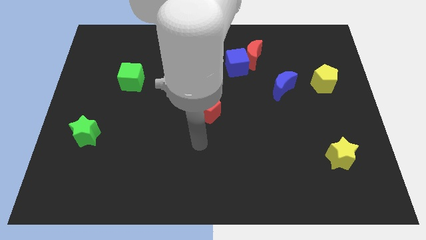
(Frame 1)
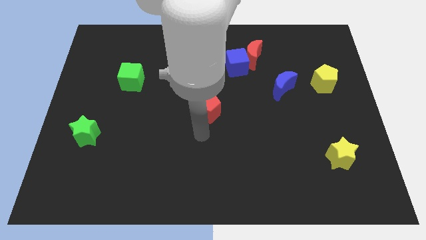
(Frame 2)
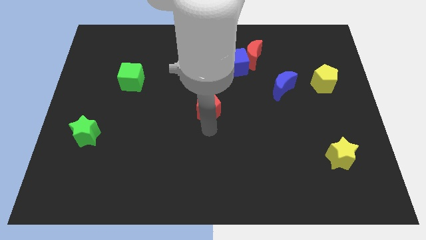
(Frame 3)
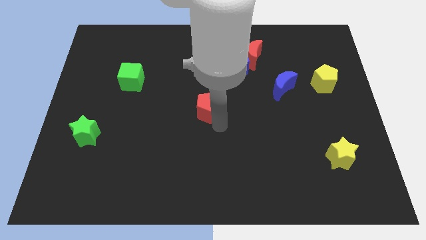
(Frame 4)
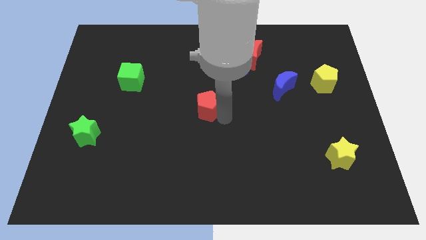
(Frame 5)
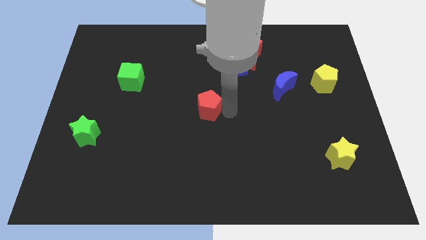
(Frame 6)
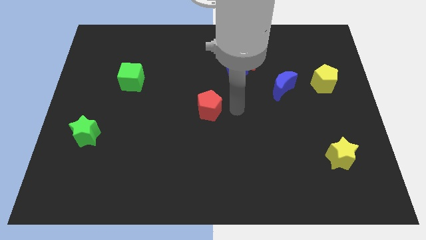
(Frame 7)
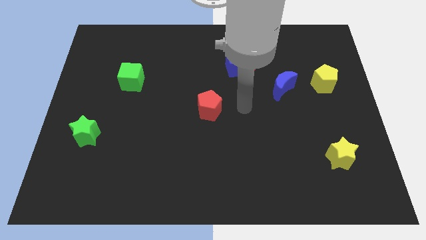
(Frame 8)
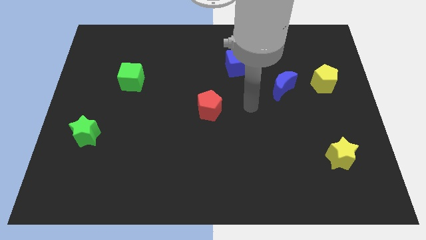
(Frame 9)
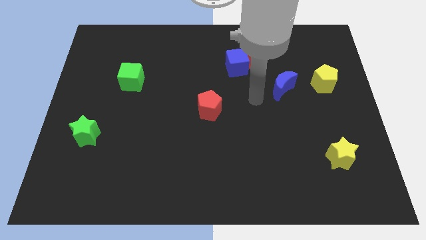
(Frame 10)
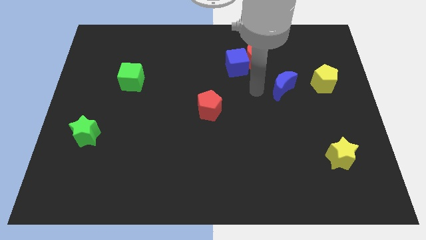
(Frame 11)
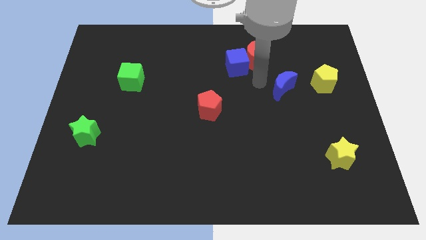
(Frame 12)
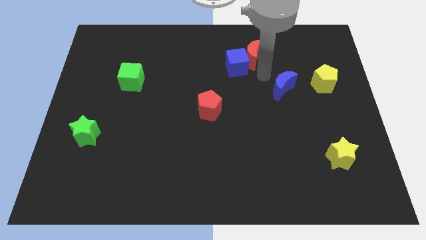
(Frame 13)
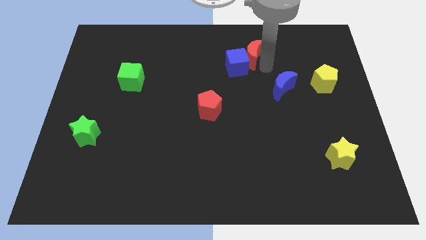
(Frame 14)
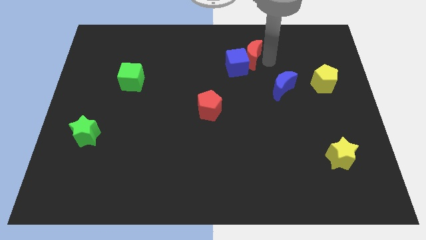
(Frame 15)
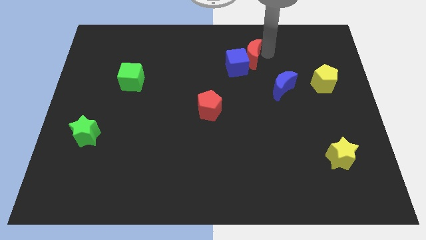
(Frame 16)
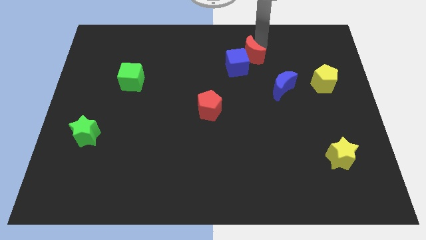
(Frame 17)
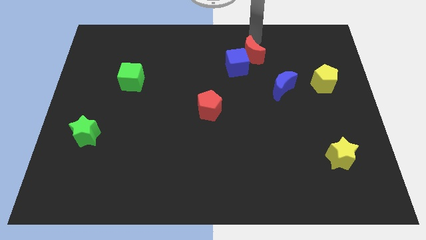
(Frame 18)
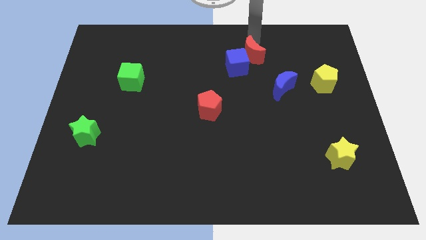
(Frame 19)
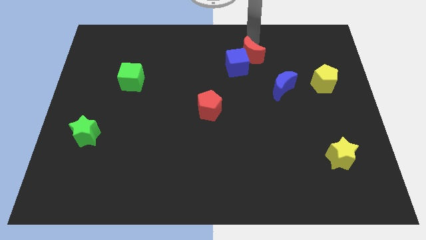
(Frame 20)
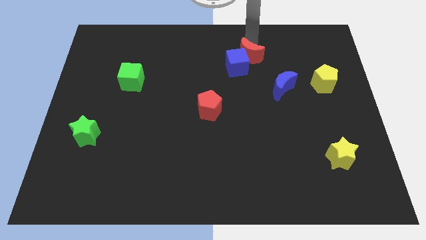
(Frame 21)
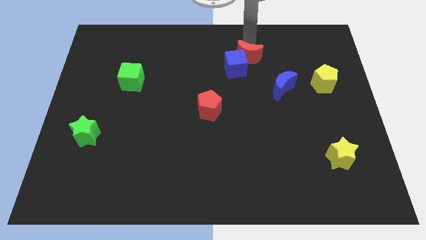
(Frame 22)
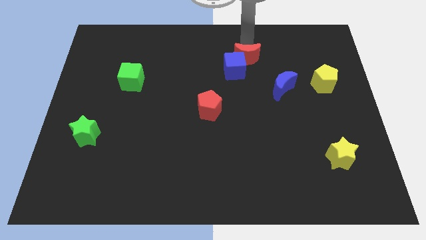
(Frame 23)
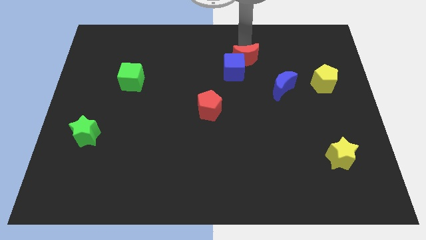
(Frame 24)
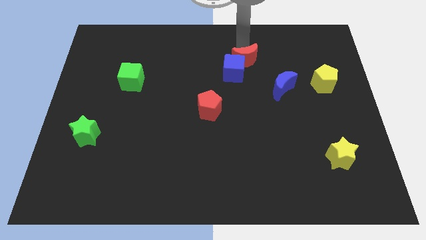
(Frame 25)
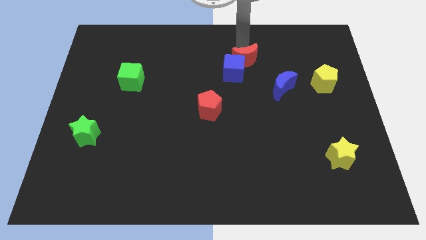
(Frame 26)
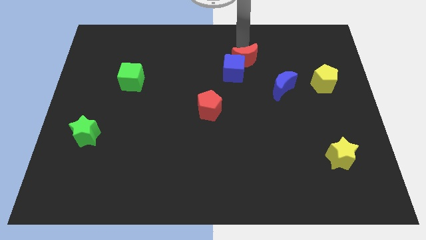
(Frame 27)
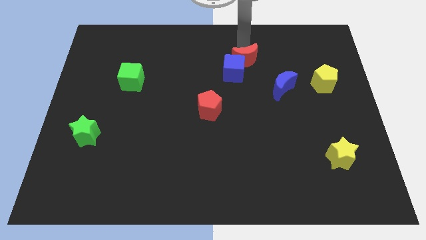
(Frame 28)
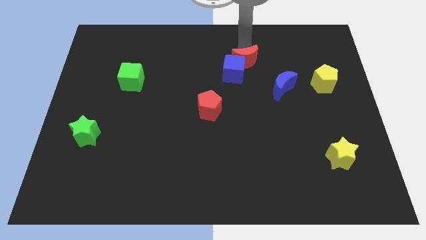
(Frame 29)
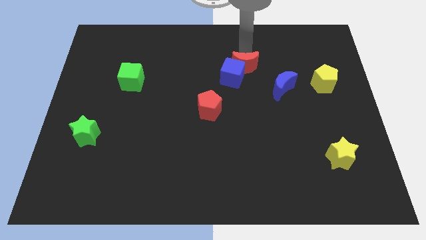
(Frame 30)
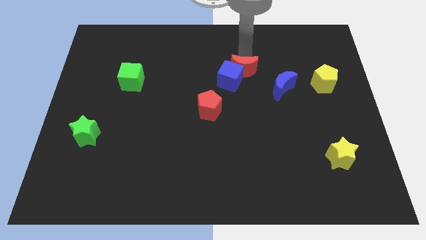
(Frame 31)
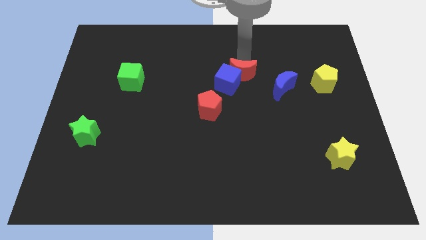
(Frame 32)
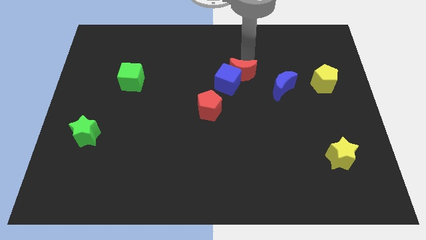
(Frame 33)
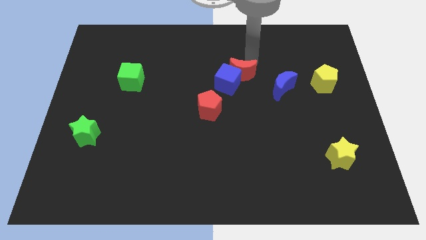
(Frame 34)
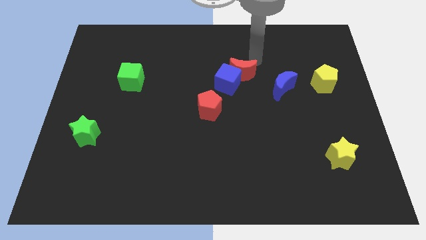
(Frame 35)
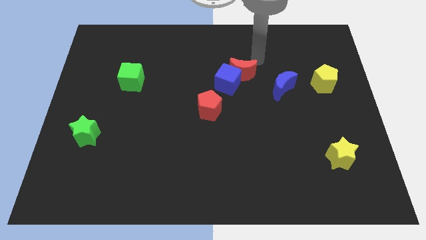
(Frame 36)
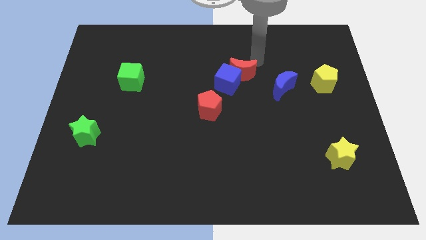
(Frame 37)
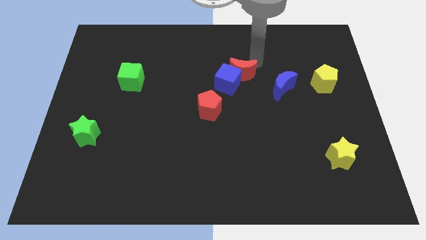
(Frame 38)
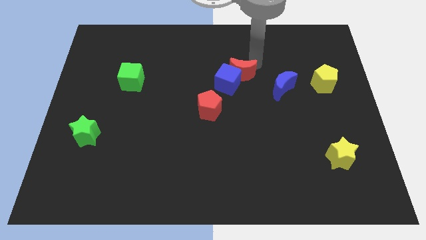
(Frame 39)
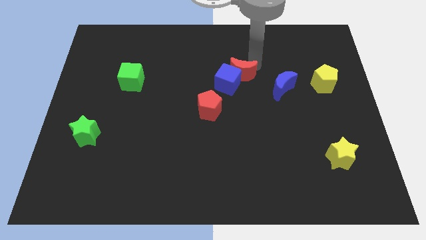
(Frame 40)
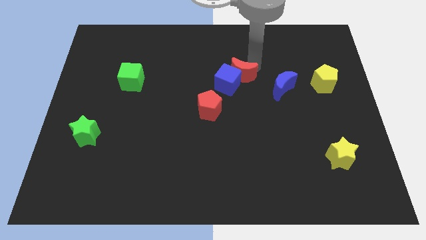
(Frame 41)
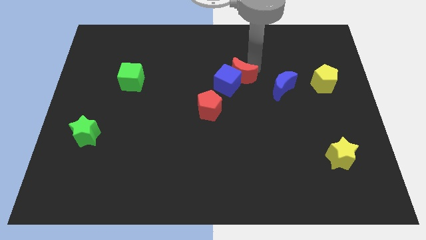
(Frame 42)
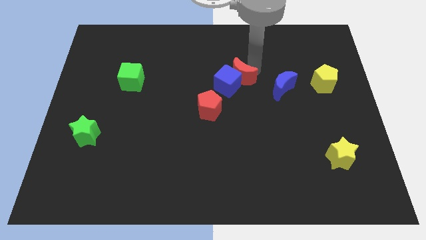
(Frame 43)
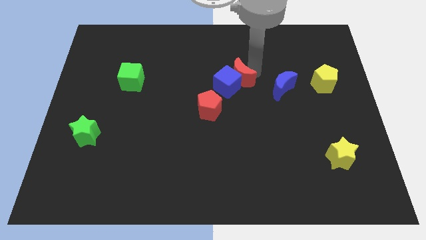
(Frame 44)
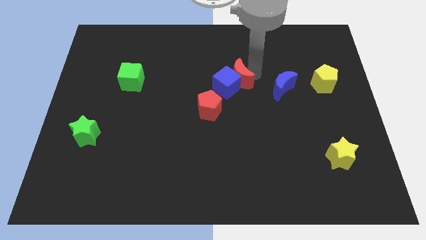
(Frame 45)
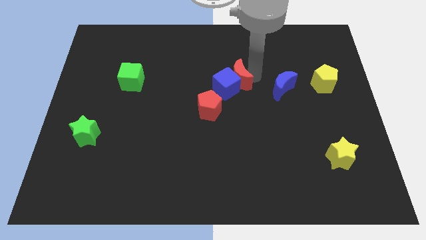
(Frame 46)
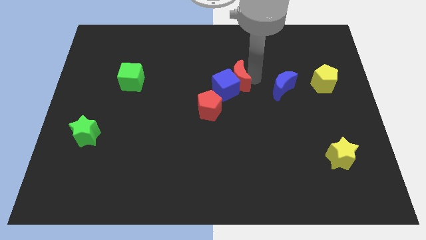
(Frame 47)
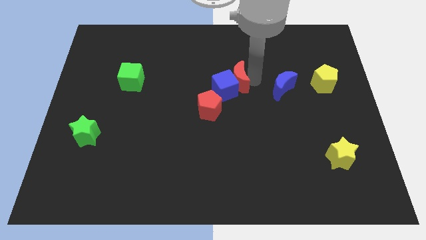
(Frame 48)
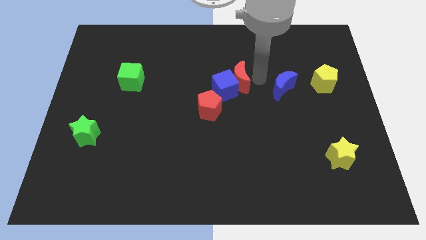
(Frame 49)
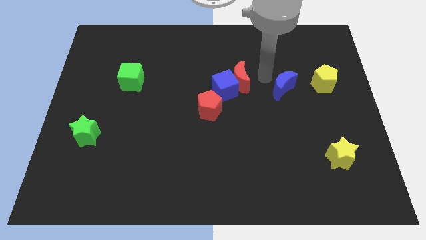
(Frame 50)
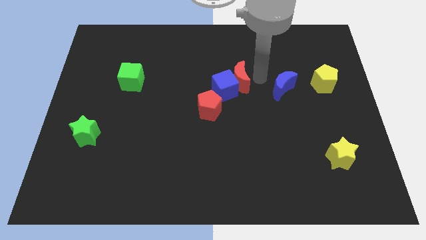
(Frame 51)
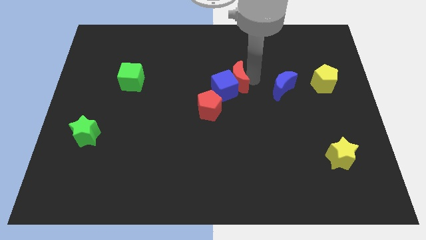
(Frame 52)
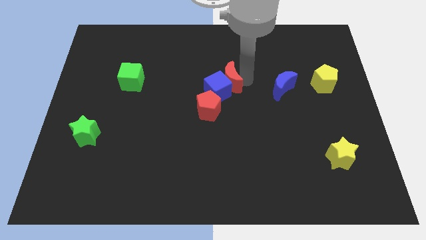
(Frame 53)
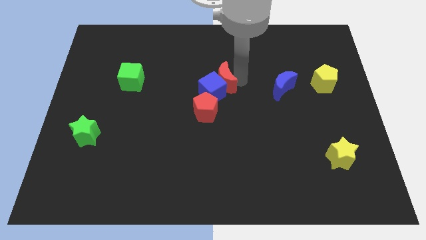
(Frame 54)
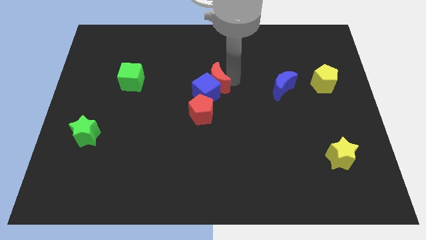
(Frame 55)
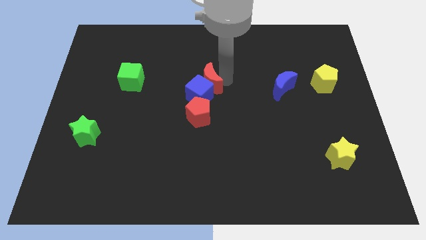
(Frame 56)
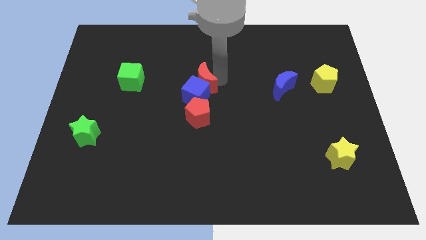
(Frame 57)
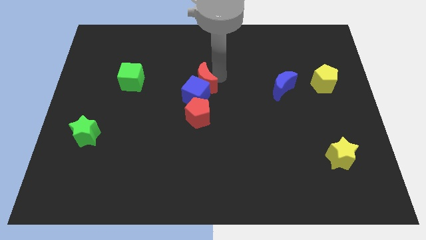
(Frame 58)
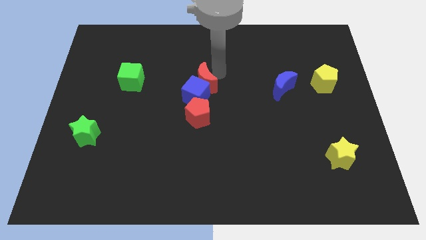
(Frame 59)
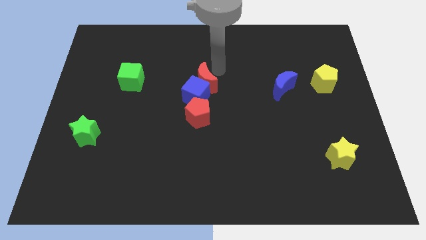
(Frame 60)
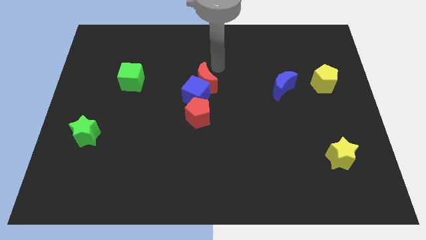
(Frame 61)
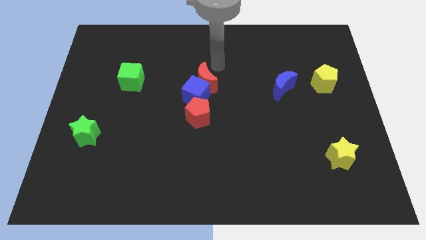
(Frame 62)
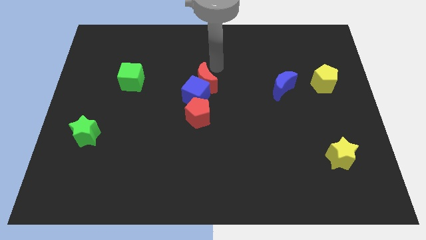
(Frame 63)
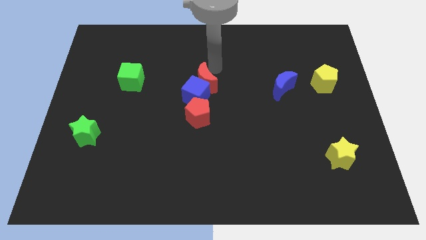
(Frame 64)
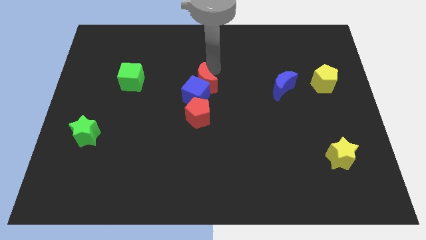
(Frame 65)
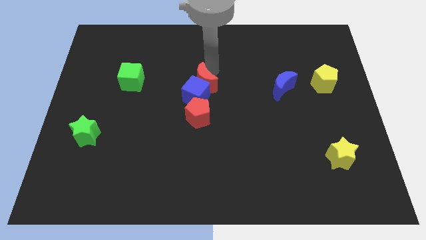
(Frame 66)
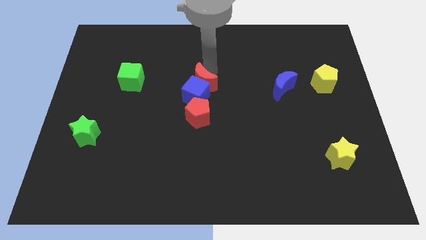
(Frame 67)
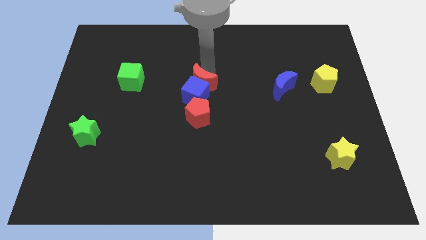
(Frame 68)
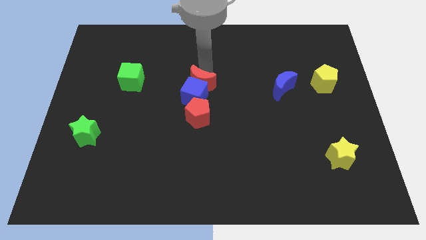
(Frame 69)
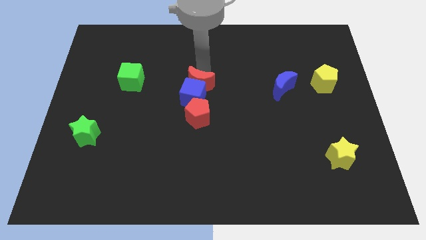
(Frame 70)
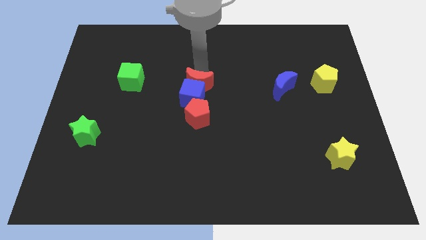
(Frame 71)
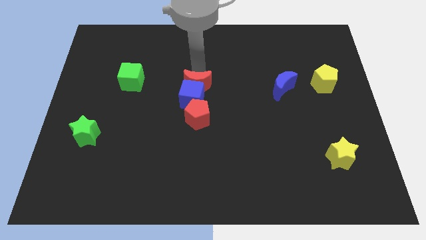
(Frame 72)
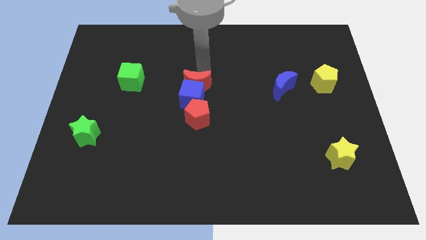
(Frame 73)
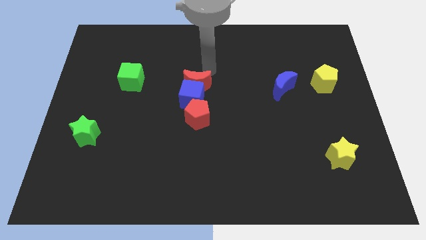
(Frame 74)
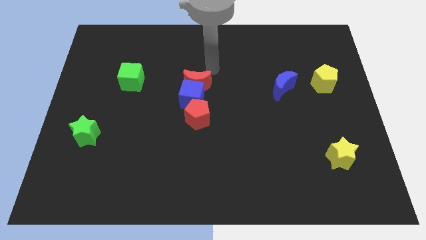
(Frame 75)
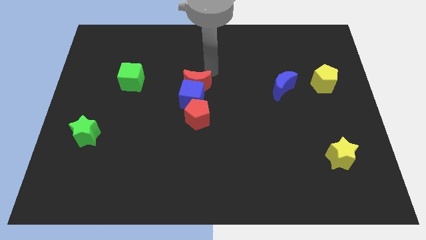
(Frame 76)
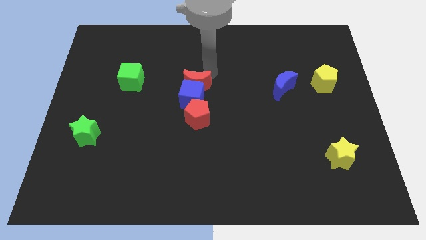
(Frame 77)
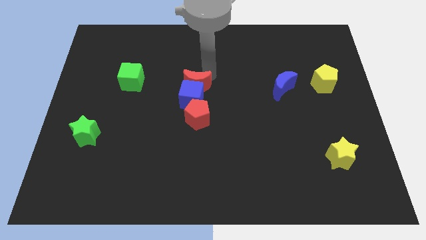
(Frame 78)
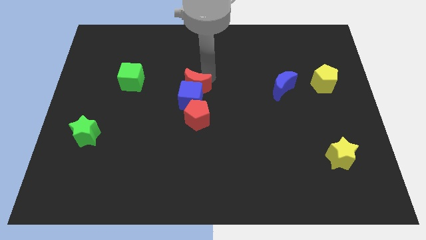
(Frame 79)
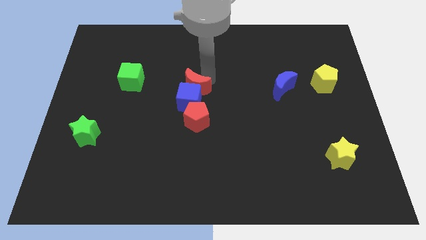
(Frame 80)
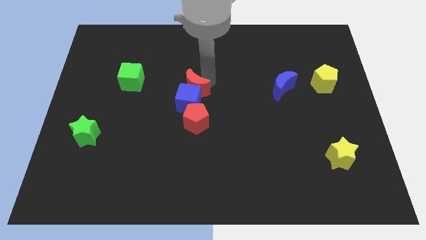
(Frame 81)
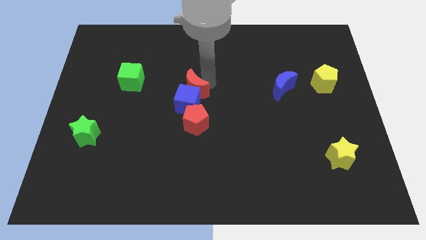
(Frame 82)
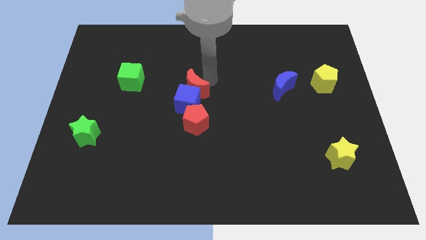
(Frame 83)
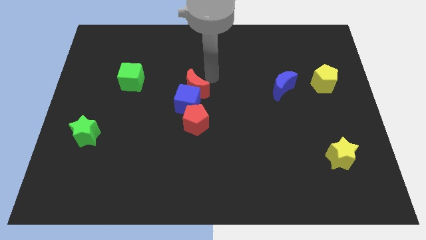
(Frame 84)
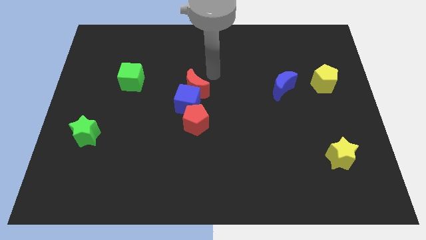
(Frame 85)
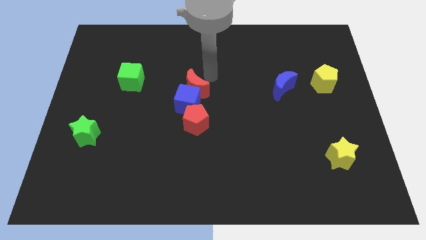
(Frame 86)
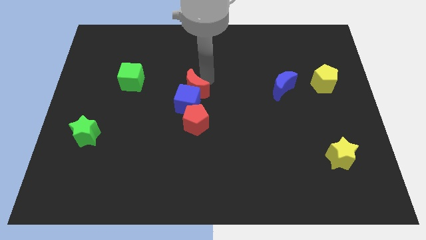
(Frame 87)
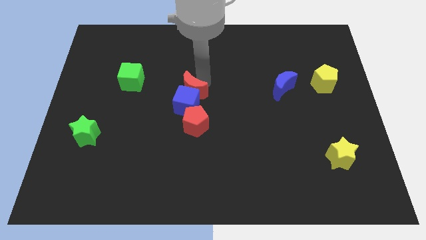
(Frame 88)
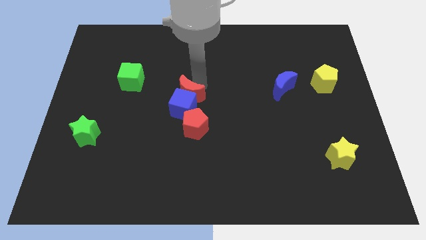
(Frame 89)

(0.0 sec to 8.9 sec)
move the red moon downwards and left
